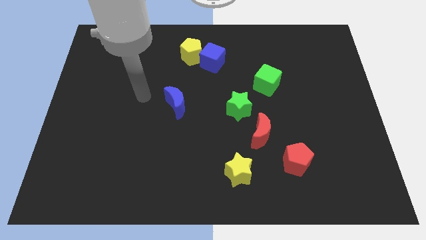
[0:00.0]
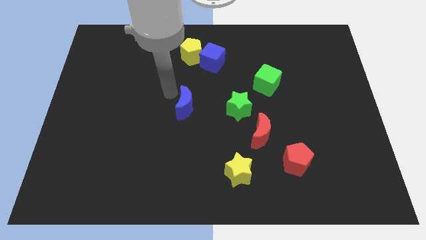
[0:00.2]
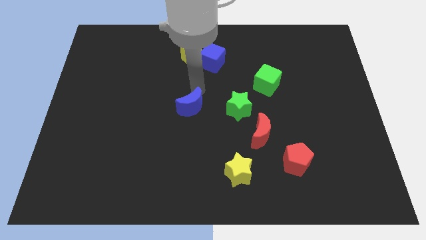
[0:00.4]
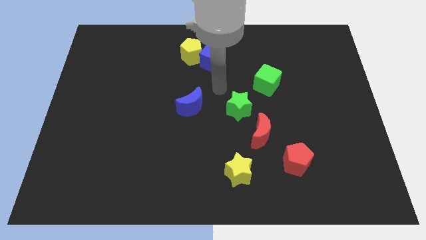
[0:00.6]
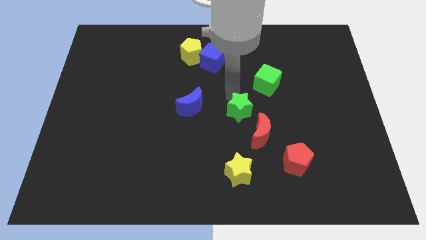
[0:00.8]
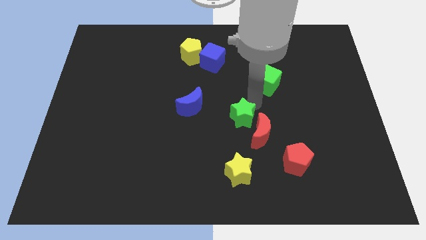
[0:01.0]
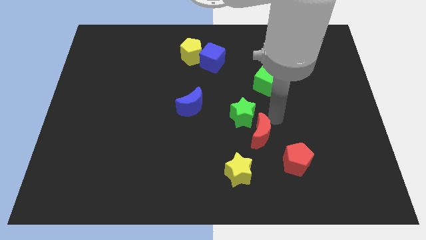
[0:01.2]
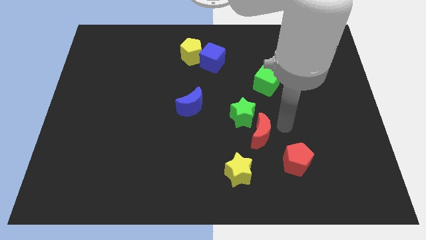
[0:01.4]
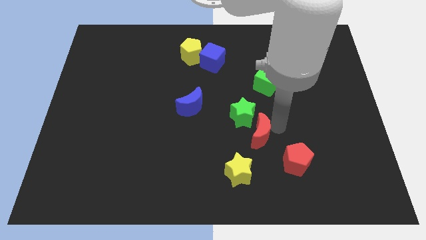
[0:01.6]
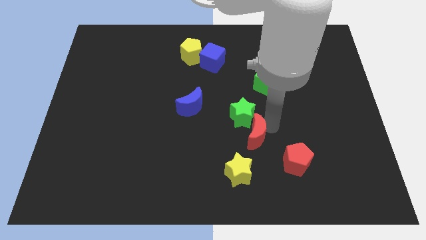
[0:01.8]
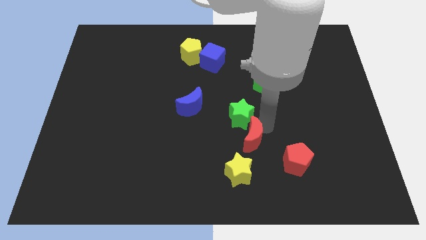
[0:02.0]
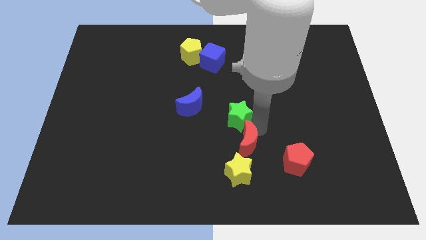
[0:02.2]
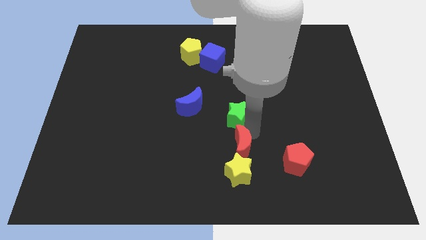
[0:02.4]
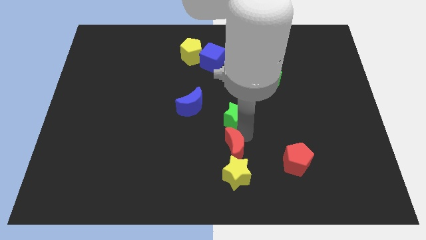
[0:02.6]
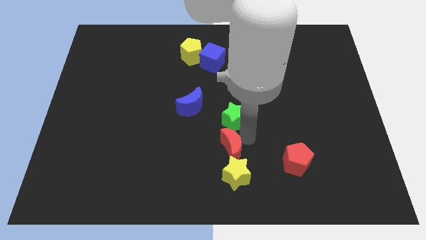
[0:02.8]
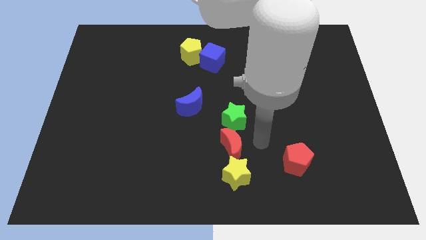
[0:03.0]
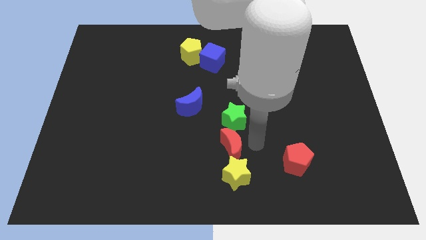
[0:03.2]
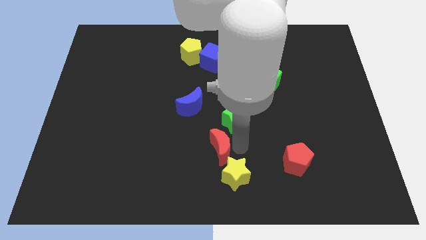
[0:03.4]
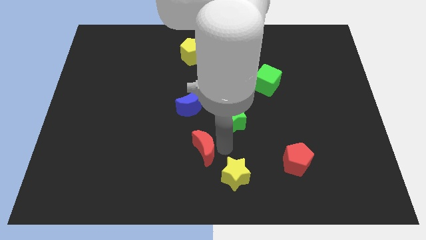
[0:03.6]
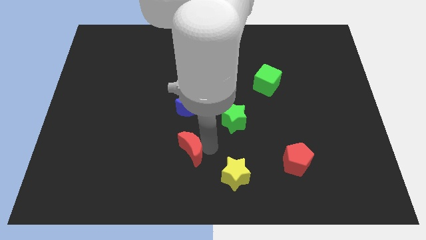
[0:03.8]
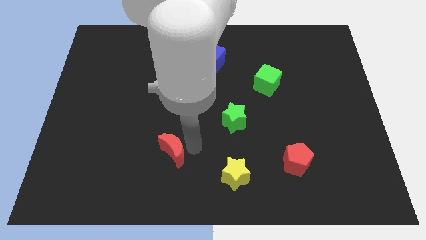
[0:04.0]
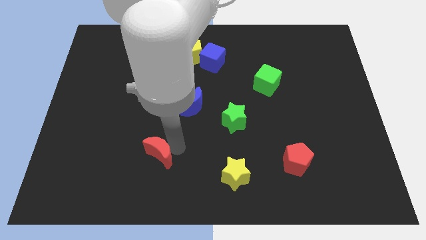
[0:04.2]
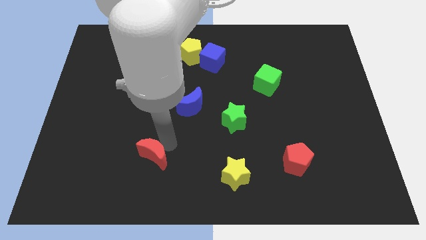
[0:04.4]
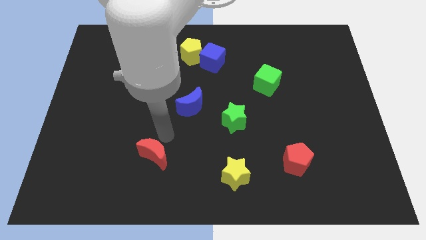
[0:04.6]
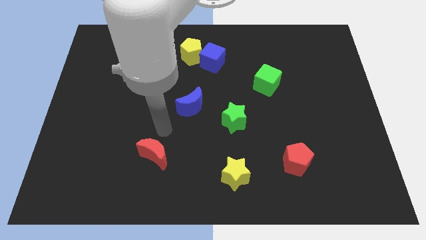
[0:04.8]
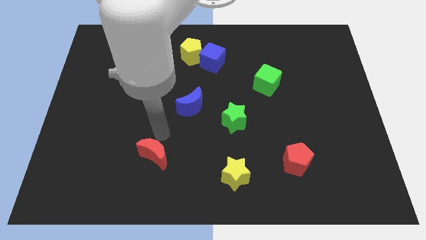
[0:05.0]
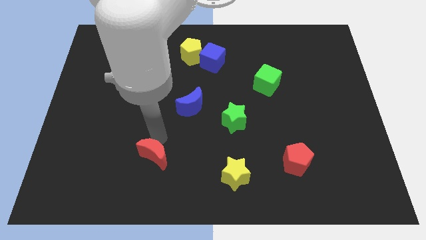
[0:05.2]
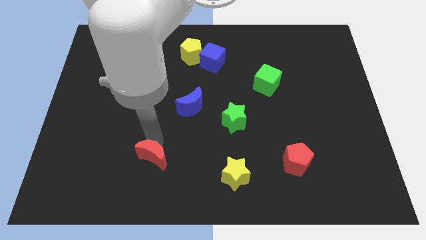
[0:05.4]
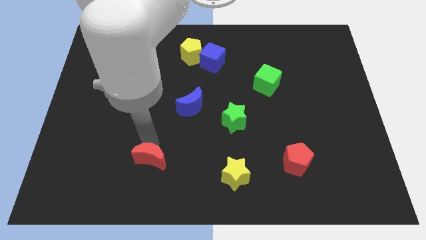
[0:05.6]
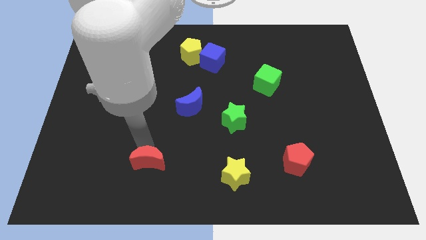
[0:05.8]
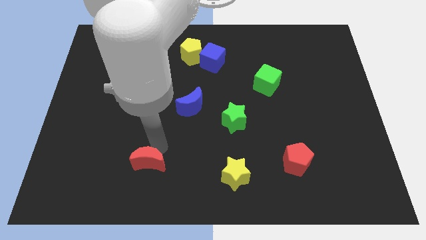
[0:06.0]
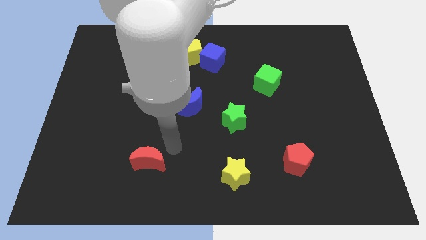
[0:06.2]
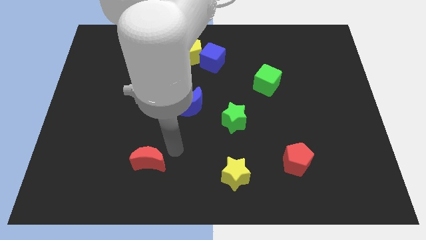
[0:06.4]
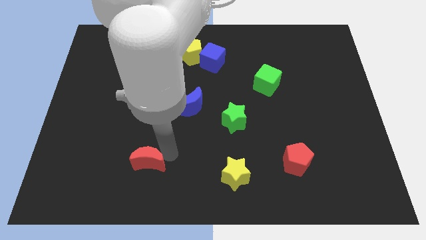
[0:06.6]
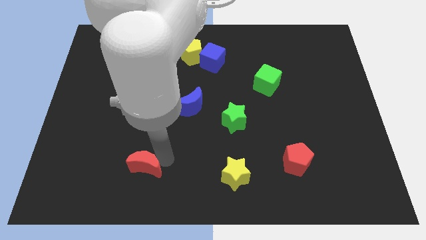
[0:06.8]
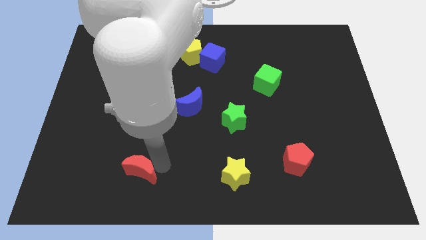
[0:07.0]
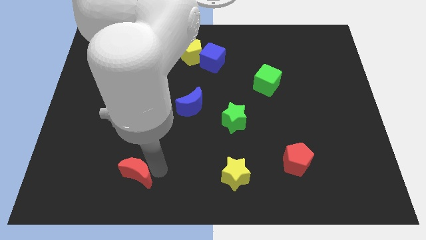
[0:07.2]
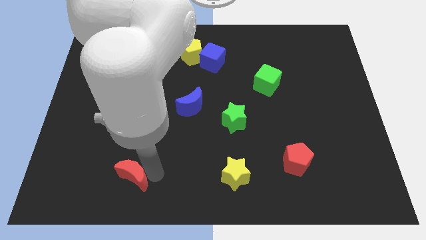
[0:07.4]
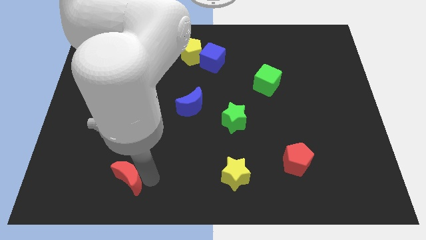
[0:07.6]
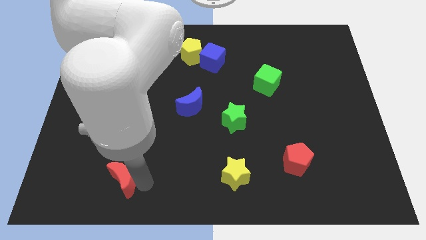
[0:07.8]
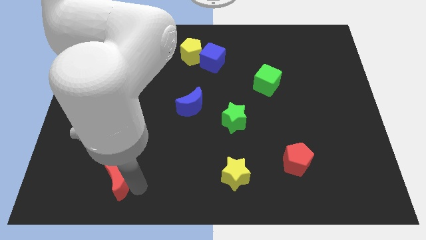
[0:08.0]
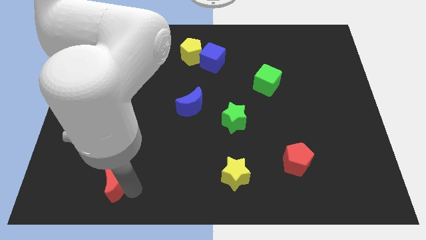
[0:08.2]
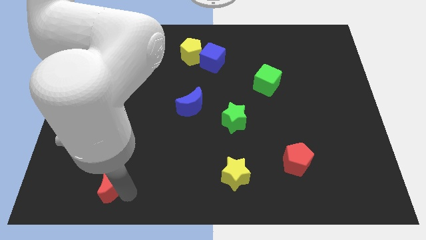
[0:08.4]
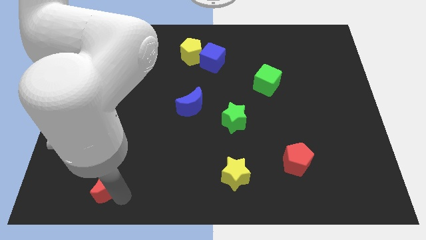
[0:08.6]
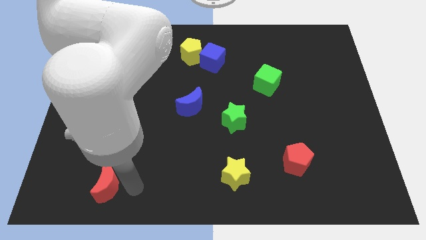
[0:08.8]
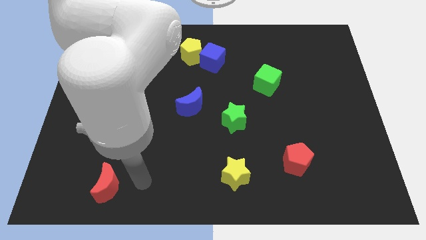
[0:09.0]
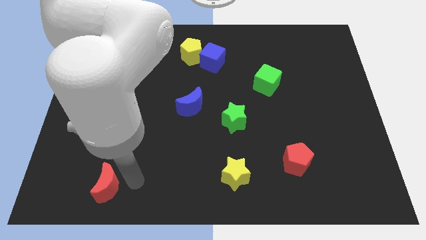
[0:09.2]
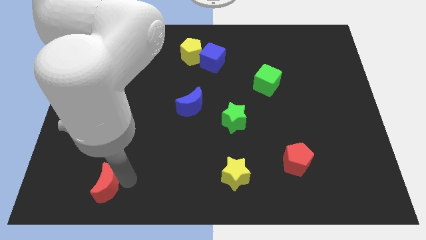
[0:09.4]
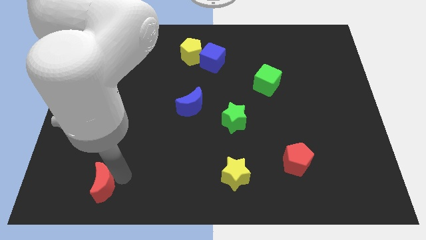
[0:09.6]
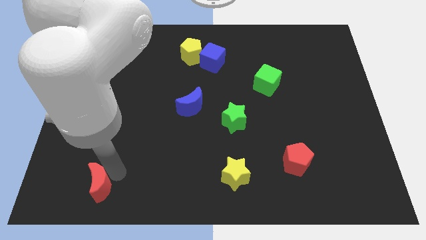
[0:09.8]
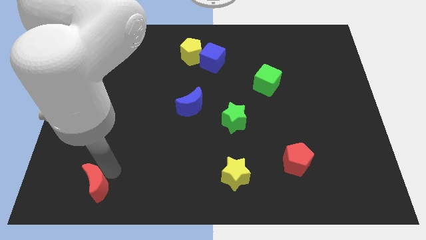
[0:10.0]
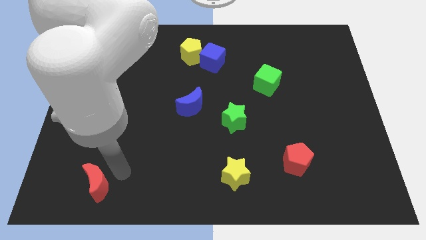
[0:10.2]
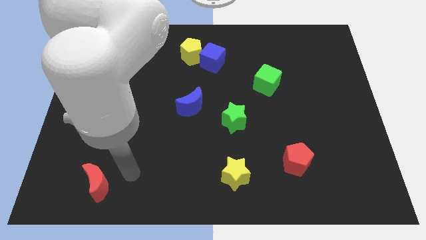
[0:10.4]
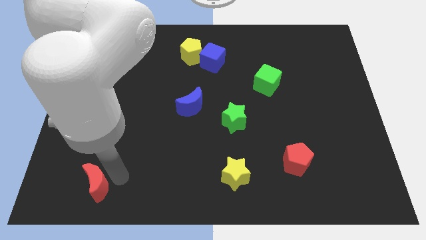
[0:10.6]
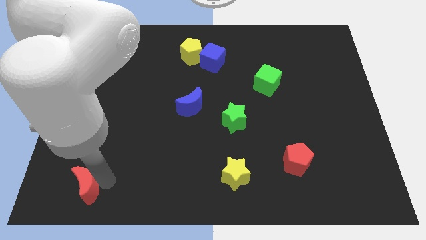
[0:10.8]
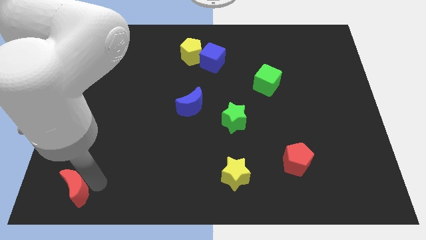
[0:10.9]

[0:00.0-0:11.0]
put the red moon to the bottom left
